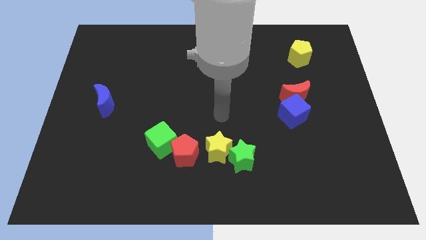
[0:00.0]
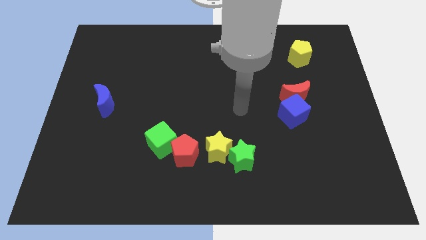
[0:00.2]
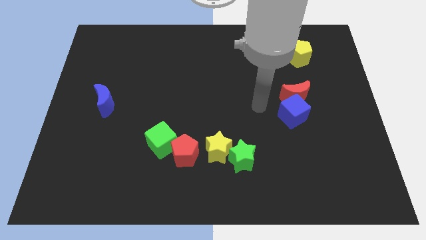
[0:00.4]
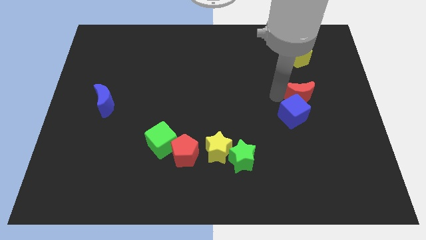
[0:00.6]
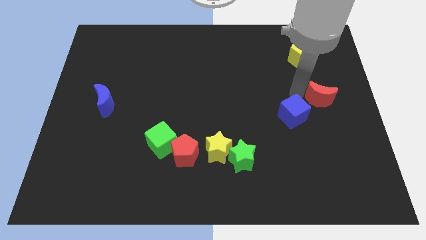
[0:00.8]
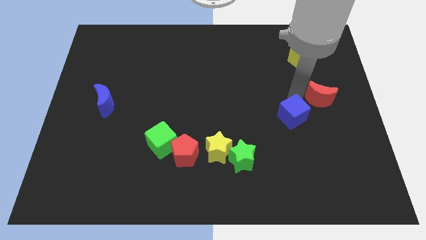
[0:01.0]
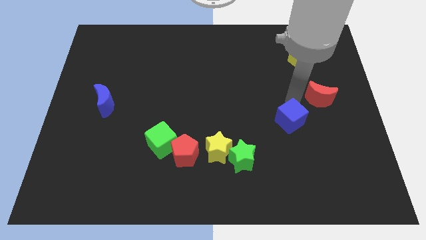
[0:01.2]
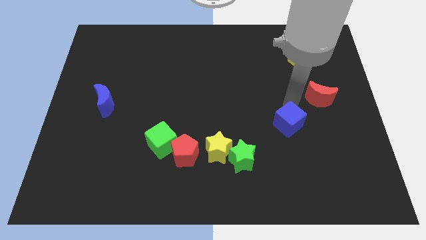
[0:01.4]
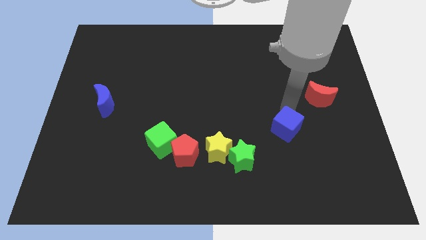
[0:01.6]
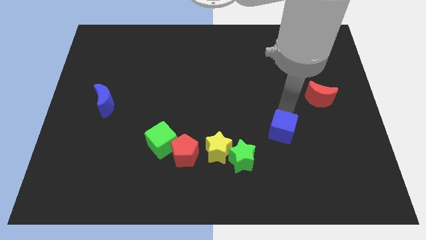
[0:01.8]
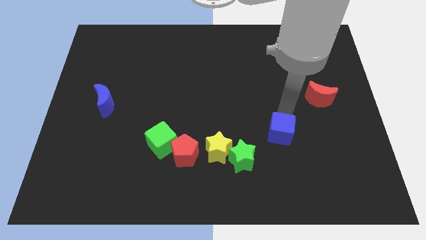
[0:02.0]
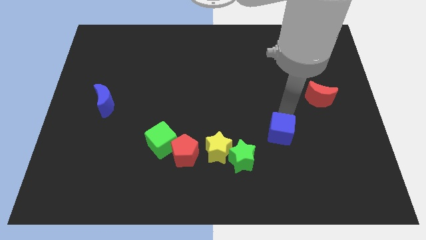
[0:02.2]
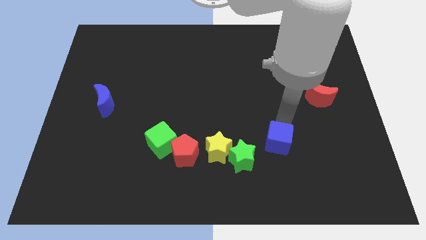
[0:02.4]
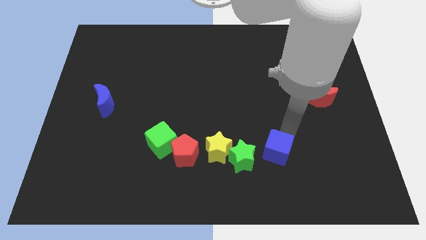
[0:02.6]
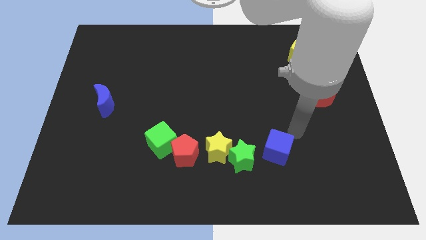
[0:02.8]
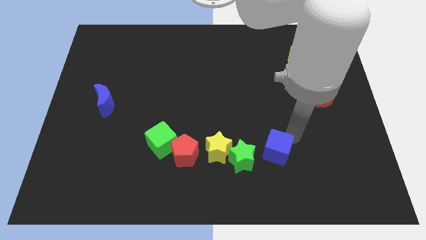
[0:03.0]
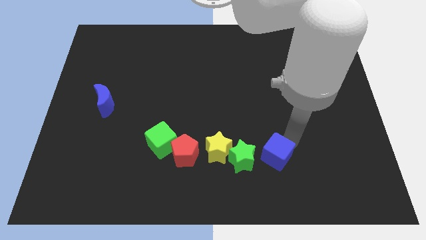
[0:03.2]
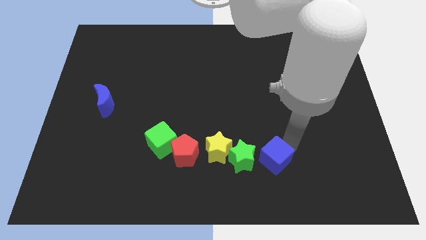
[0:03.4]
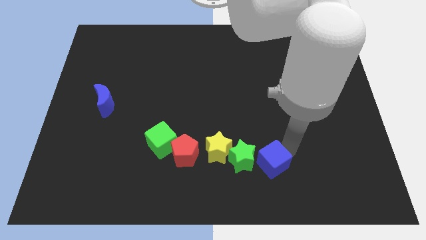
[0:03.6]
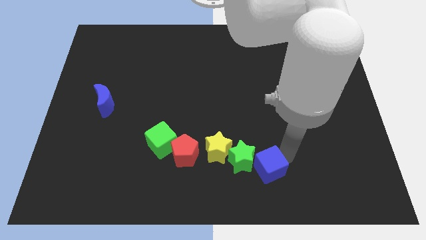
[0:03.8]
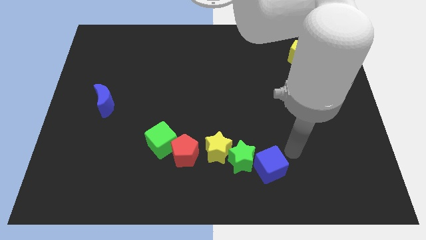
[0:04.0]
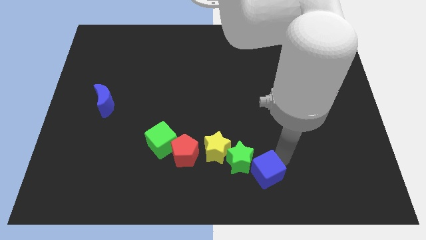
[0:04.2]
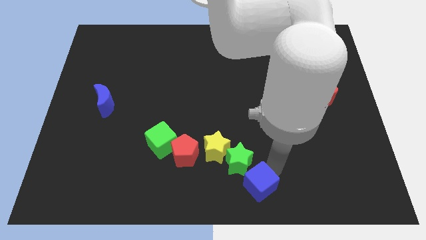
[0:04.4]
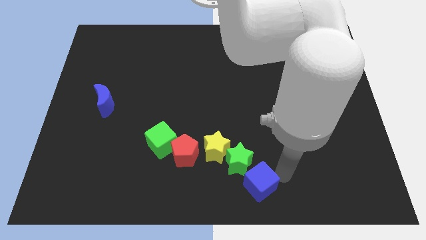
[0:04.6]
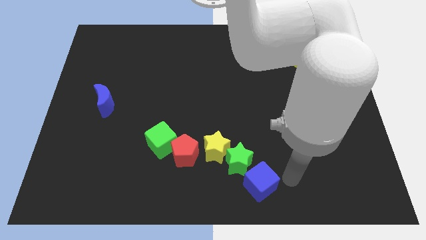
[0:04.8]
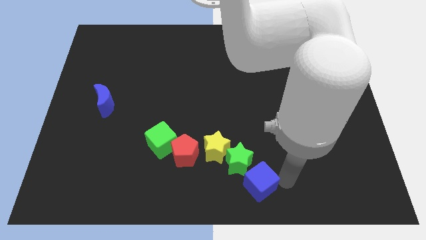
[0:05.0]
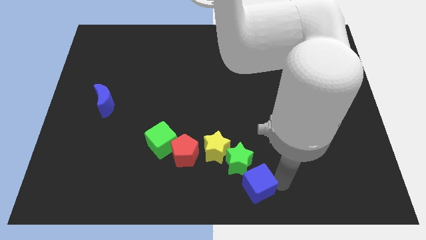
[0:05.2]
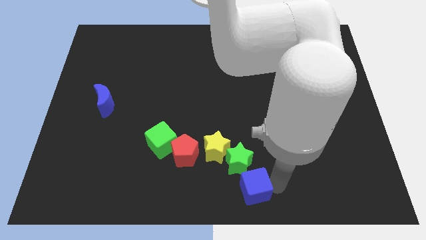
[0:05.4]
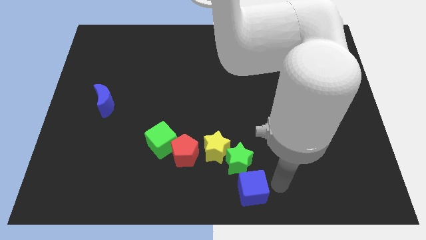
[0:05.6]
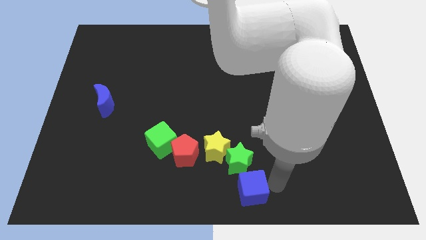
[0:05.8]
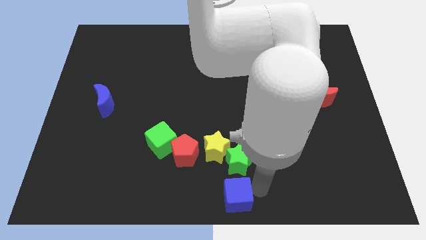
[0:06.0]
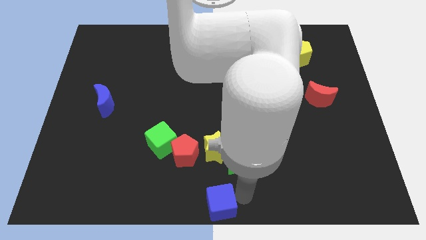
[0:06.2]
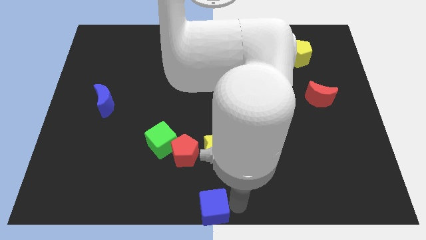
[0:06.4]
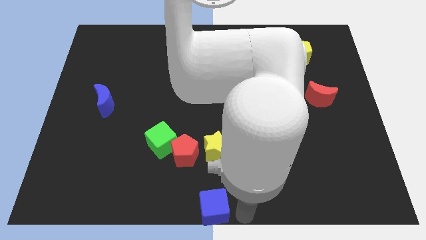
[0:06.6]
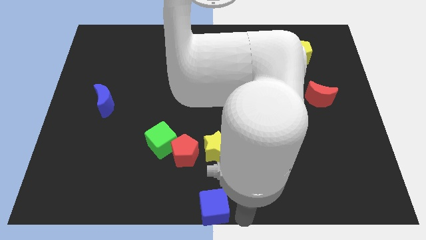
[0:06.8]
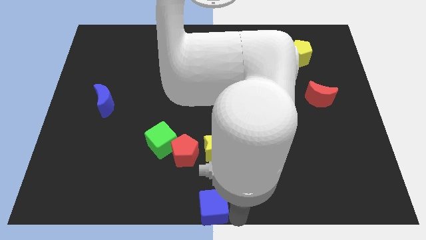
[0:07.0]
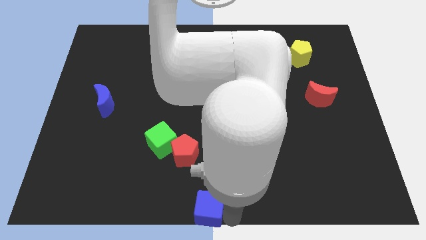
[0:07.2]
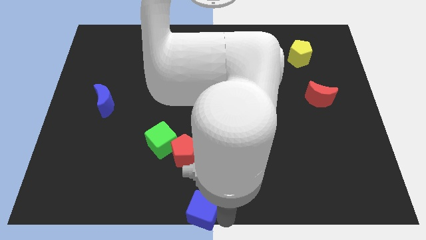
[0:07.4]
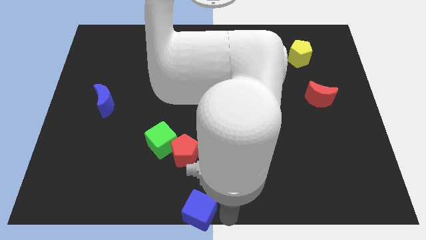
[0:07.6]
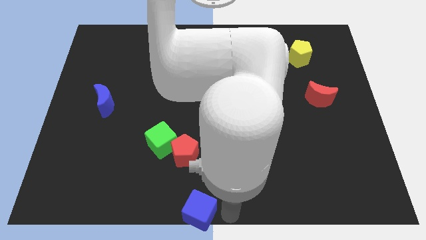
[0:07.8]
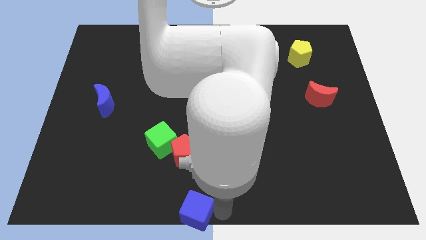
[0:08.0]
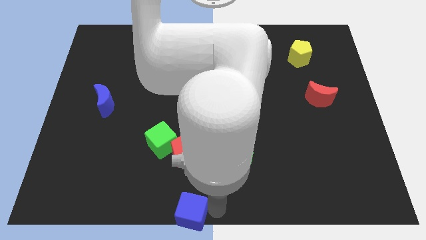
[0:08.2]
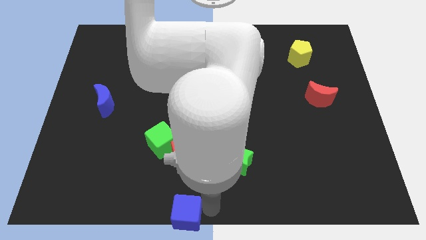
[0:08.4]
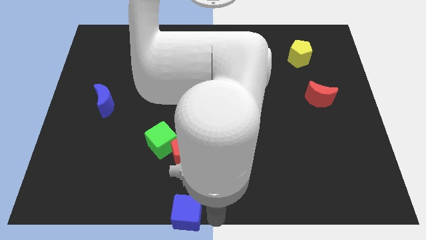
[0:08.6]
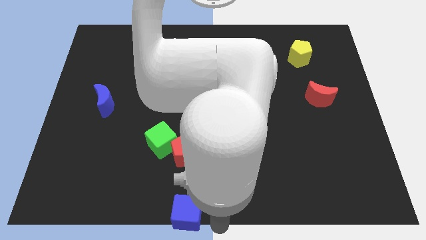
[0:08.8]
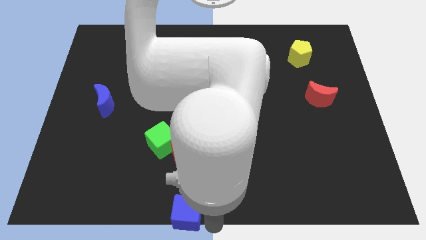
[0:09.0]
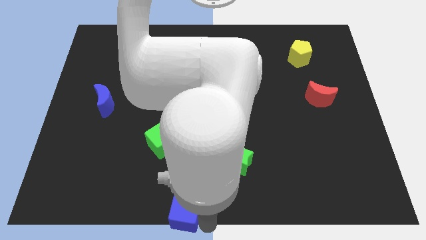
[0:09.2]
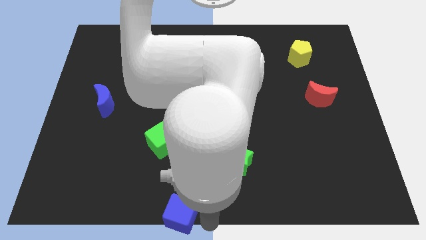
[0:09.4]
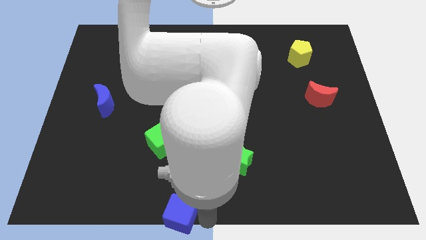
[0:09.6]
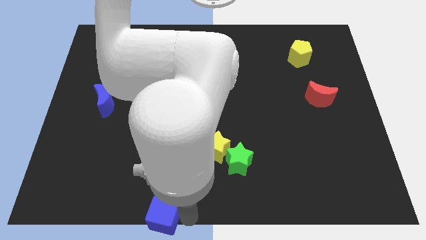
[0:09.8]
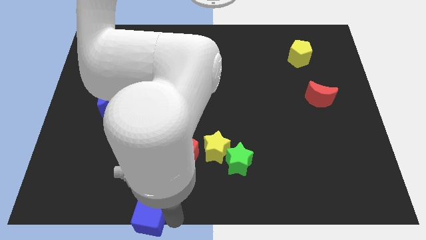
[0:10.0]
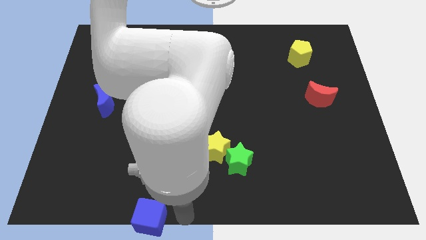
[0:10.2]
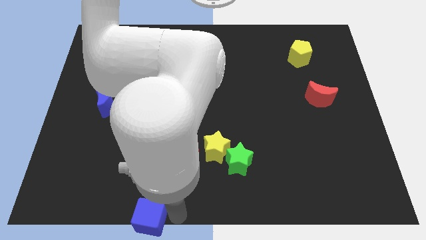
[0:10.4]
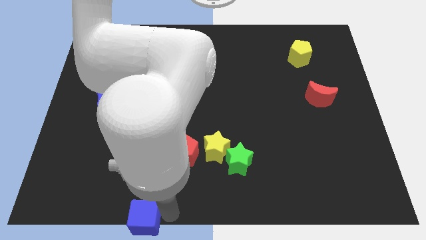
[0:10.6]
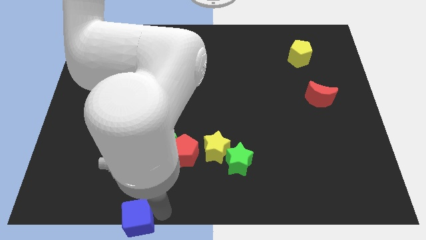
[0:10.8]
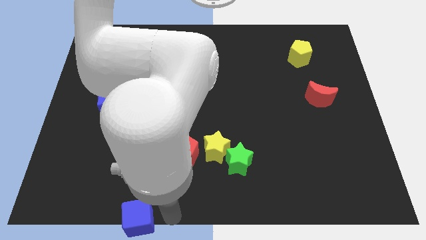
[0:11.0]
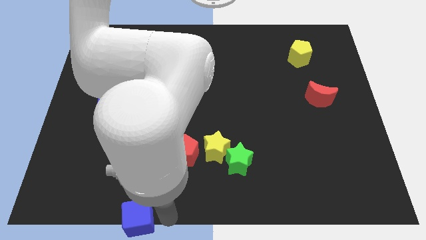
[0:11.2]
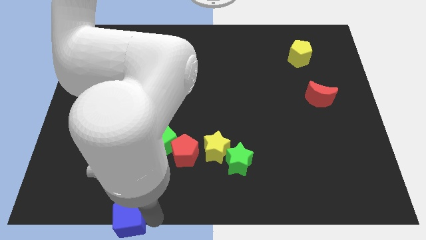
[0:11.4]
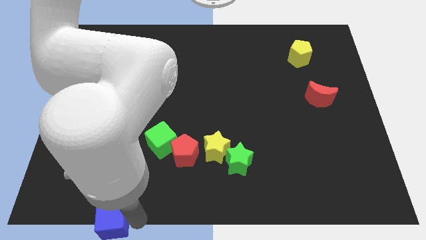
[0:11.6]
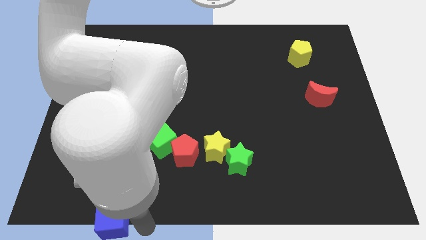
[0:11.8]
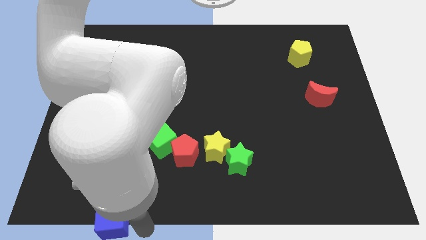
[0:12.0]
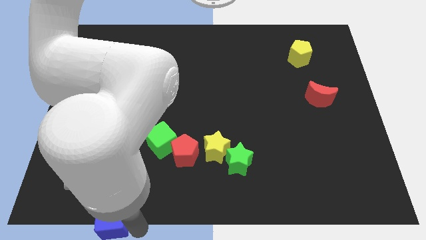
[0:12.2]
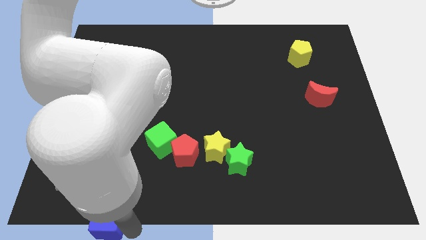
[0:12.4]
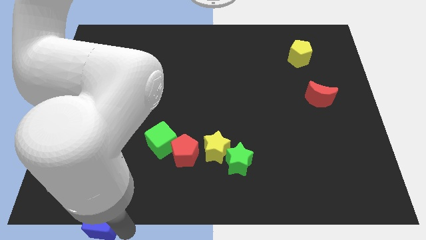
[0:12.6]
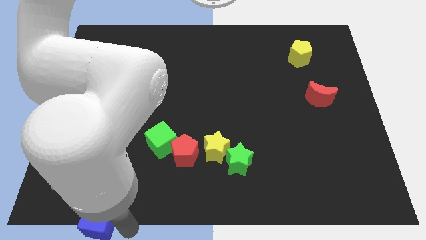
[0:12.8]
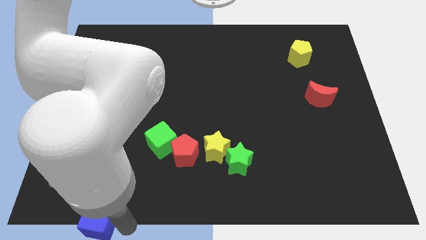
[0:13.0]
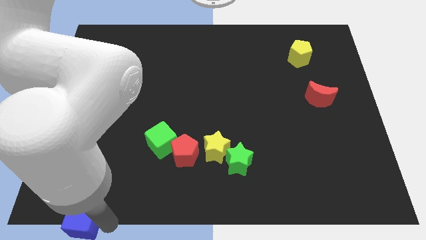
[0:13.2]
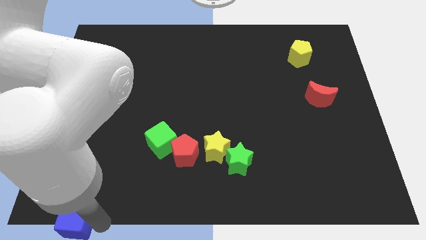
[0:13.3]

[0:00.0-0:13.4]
put the blue cube to the bottom left
